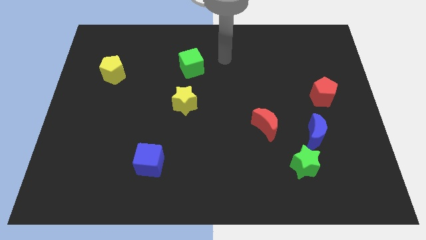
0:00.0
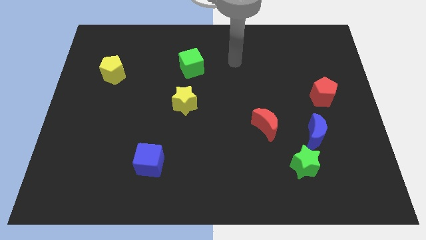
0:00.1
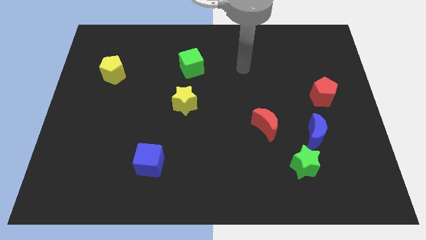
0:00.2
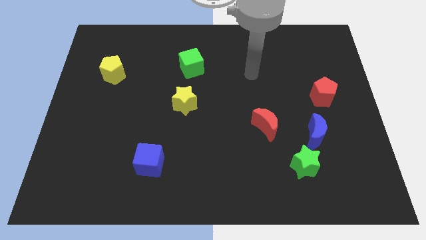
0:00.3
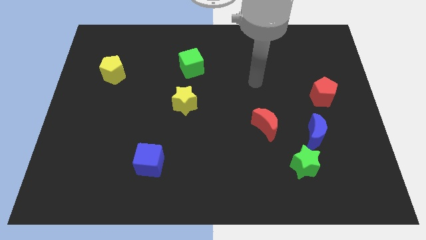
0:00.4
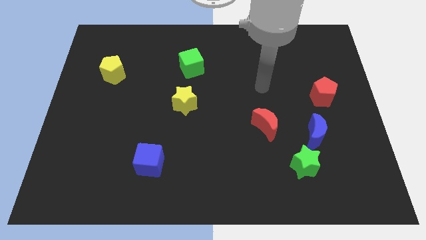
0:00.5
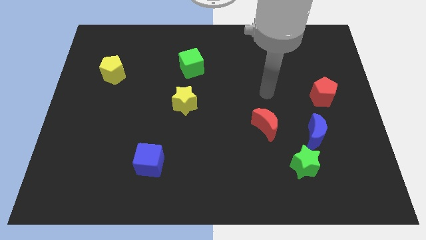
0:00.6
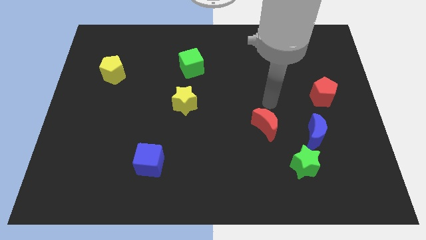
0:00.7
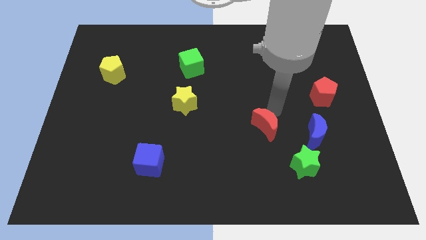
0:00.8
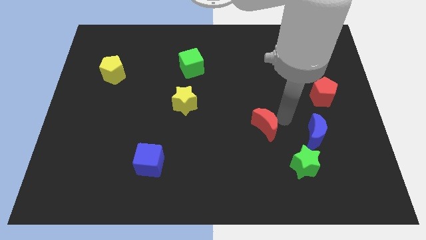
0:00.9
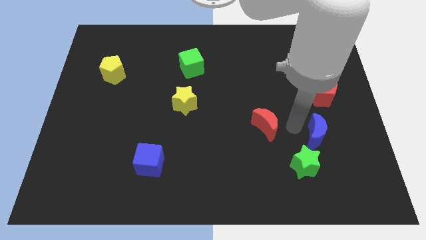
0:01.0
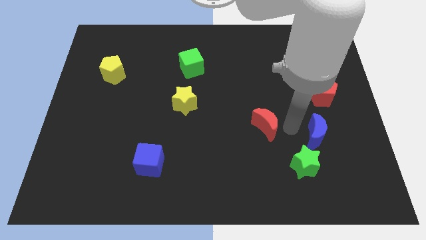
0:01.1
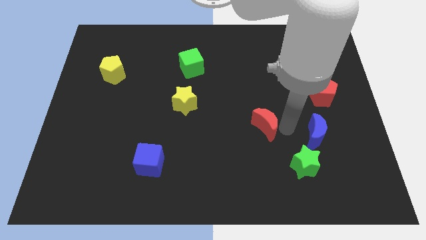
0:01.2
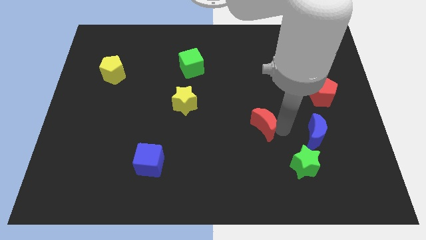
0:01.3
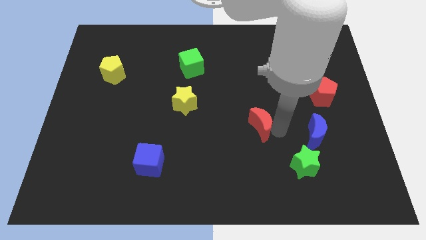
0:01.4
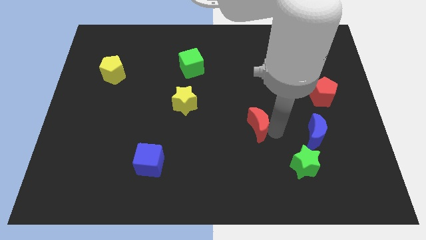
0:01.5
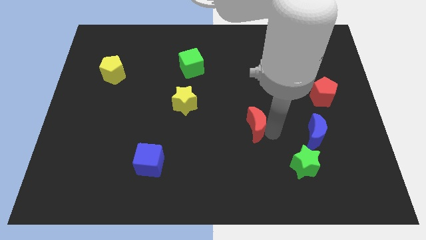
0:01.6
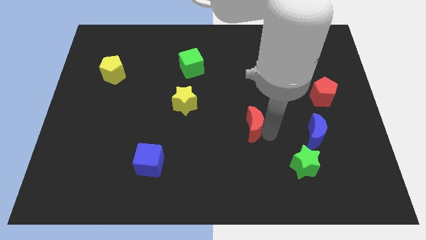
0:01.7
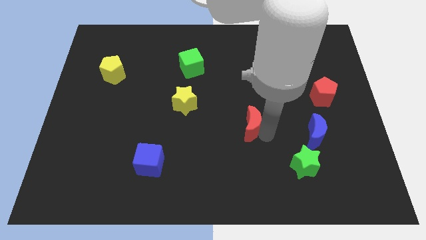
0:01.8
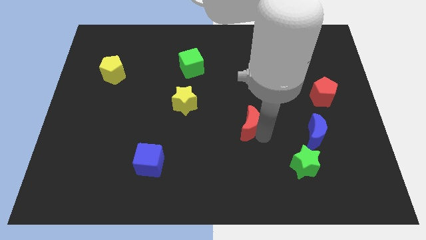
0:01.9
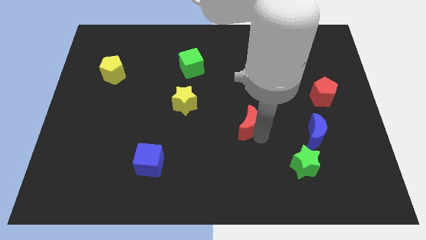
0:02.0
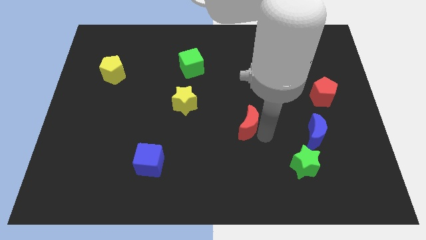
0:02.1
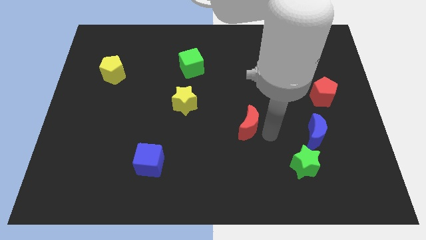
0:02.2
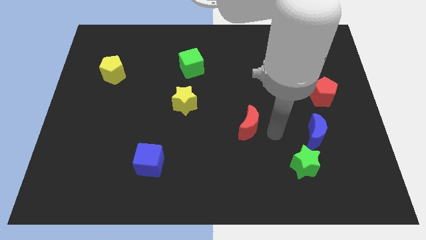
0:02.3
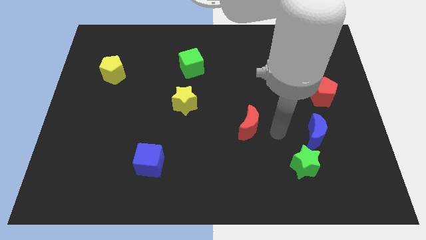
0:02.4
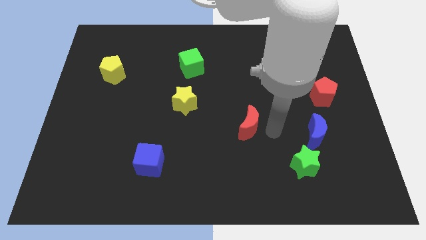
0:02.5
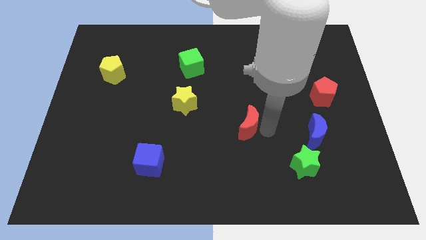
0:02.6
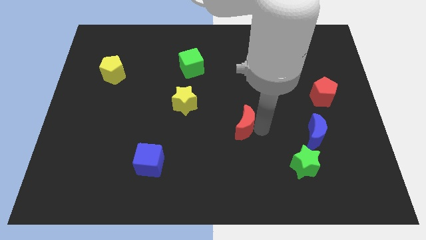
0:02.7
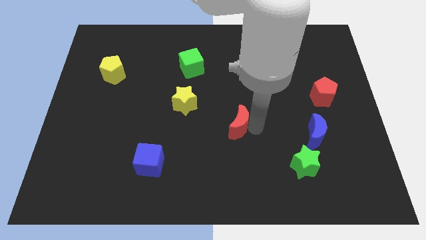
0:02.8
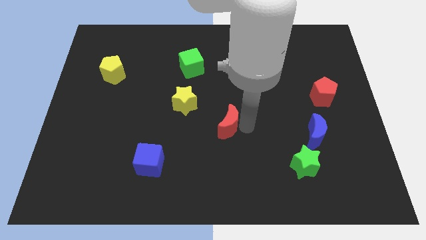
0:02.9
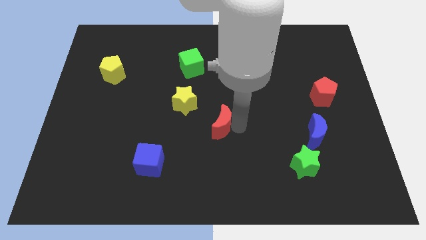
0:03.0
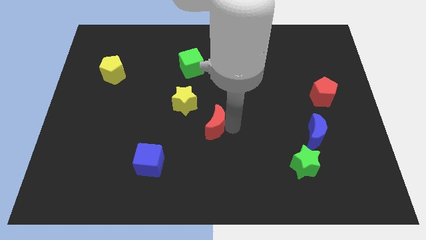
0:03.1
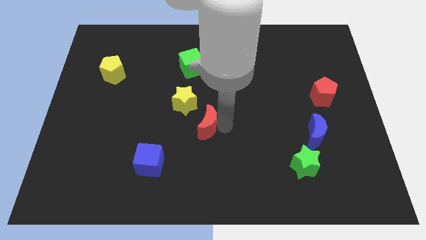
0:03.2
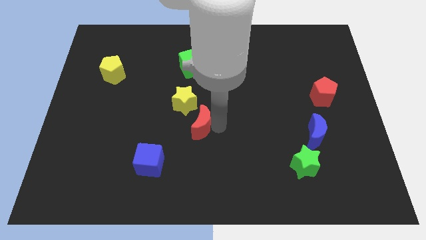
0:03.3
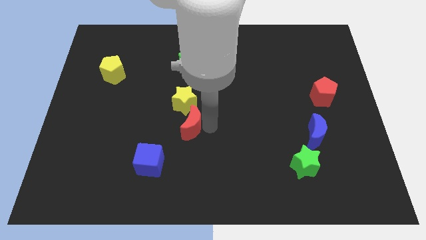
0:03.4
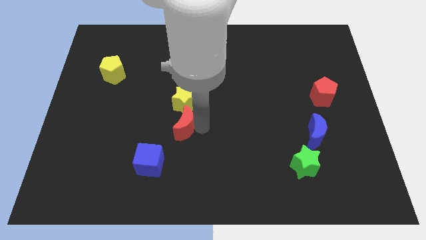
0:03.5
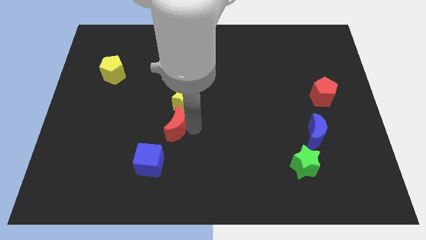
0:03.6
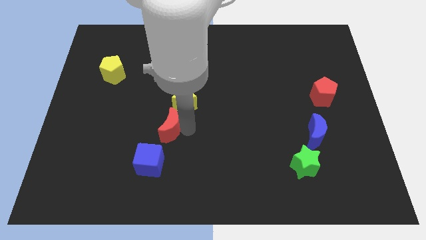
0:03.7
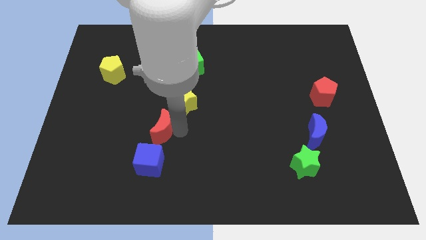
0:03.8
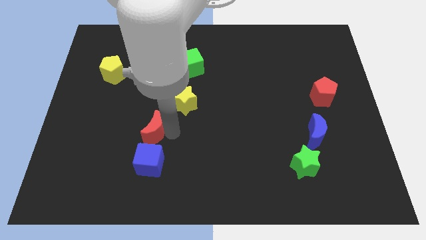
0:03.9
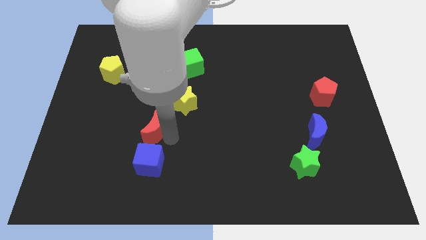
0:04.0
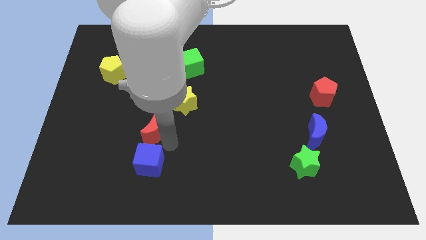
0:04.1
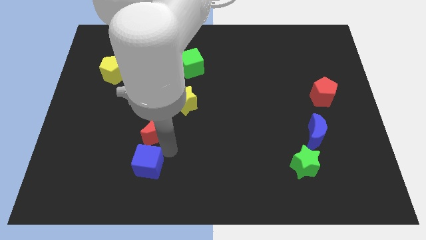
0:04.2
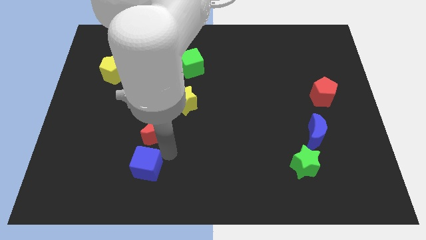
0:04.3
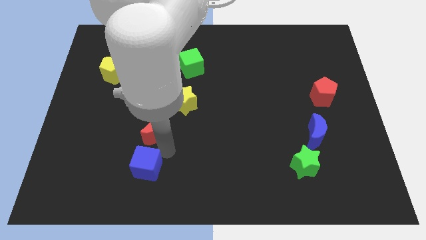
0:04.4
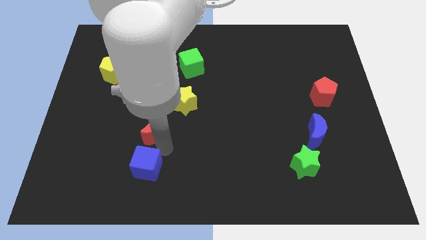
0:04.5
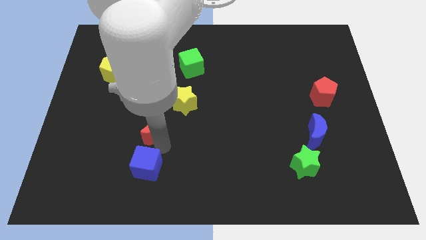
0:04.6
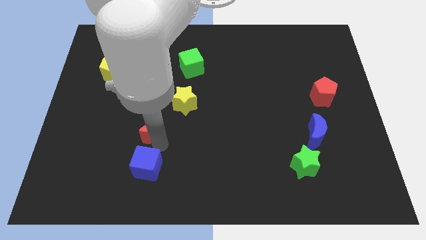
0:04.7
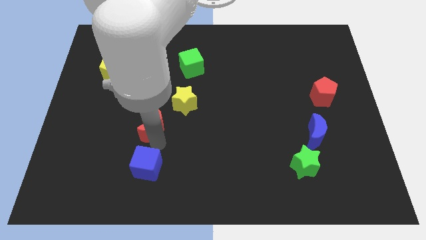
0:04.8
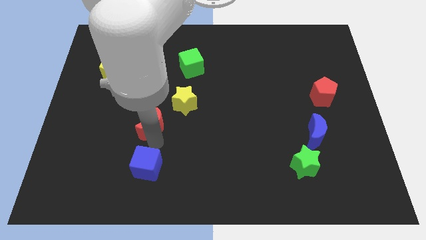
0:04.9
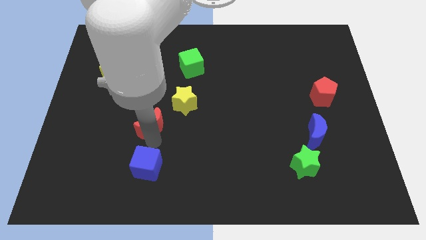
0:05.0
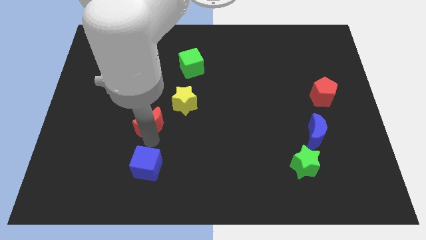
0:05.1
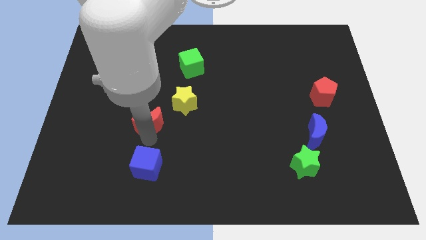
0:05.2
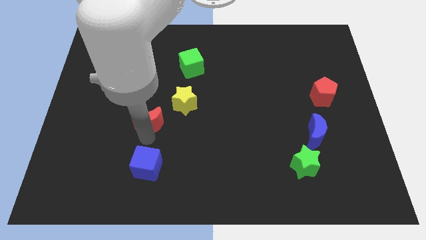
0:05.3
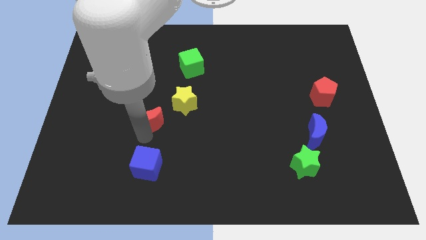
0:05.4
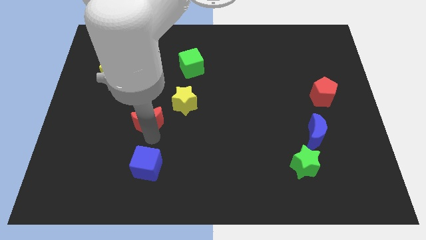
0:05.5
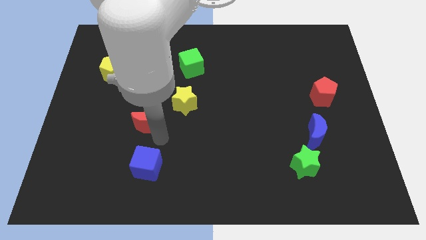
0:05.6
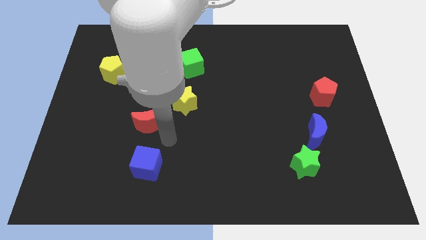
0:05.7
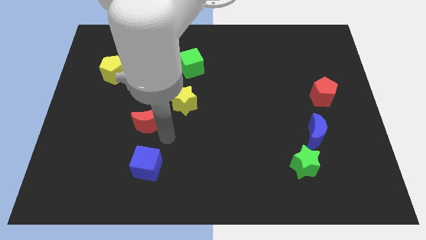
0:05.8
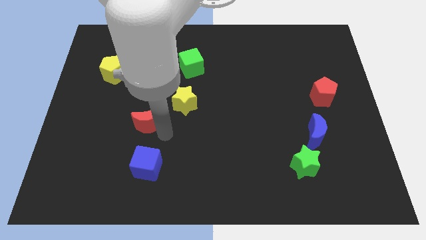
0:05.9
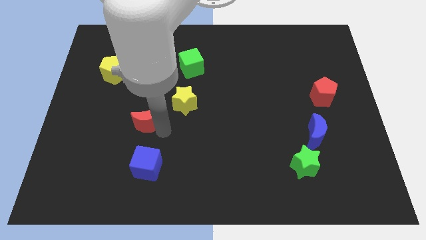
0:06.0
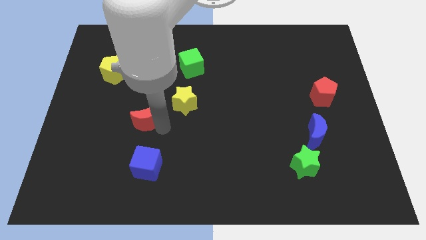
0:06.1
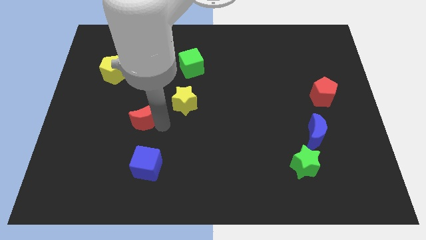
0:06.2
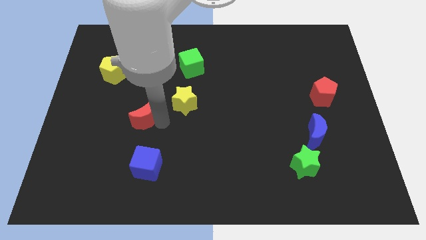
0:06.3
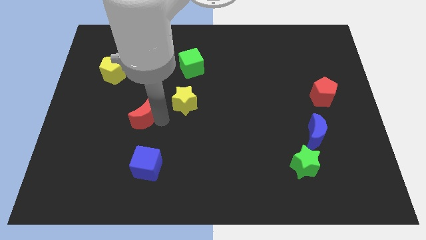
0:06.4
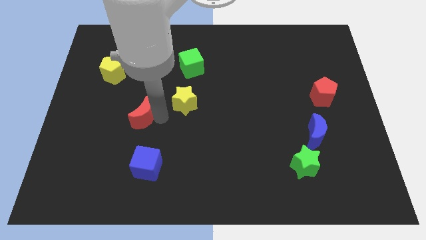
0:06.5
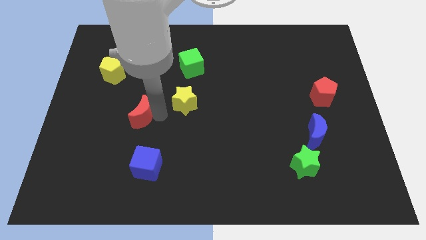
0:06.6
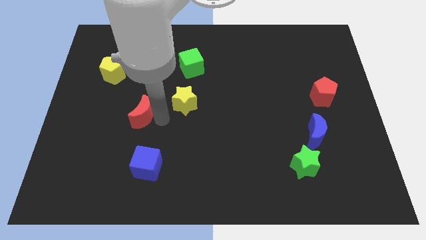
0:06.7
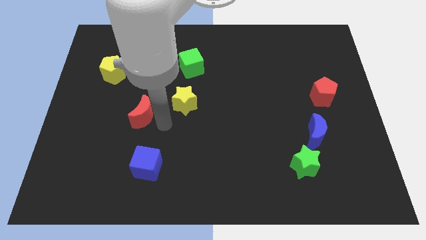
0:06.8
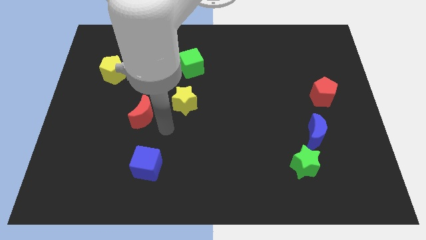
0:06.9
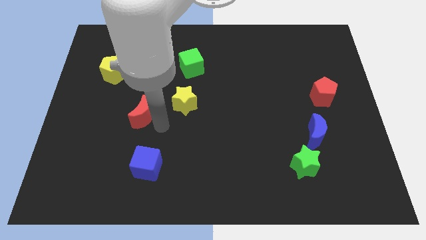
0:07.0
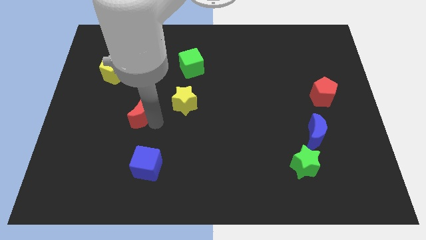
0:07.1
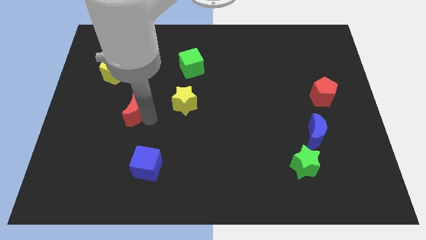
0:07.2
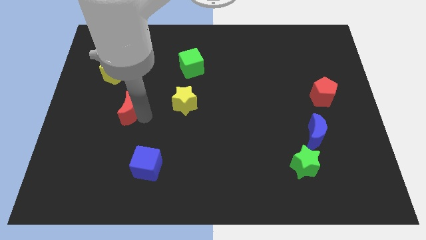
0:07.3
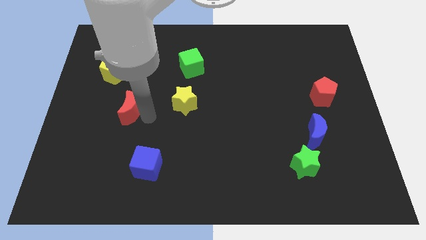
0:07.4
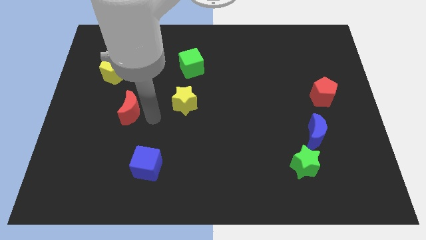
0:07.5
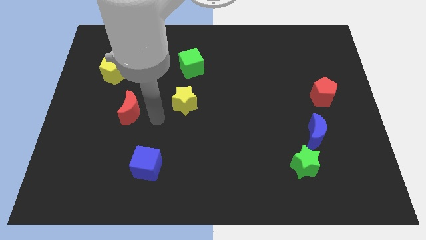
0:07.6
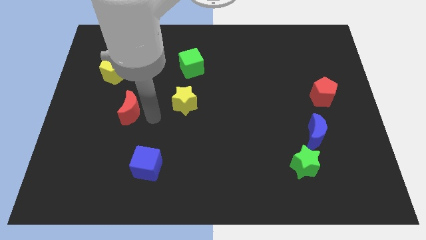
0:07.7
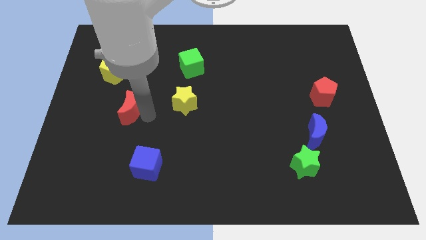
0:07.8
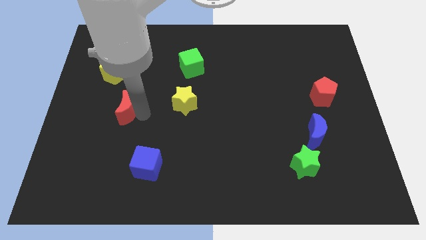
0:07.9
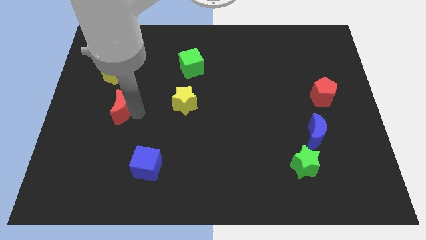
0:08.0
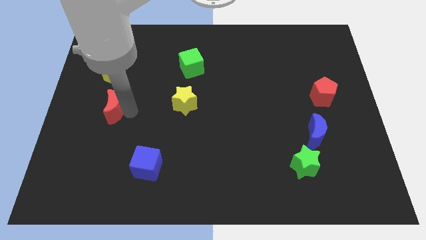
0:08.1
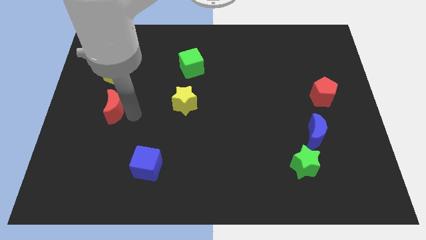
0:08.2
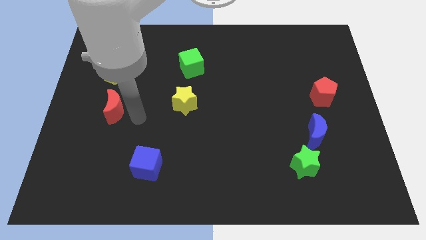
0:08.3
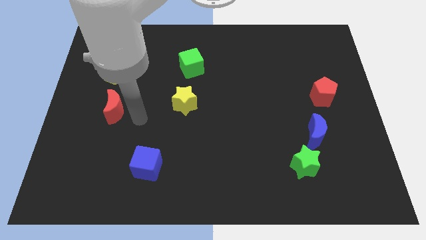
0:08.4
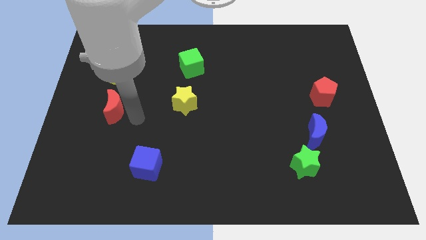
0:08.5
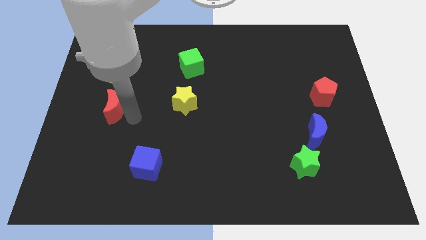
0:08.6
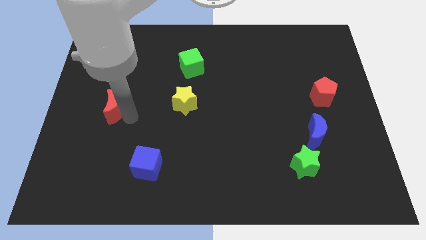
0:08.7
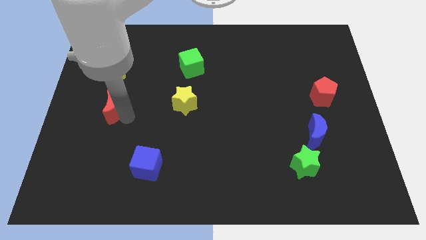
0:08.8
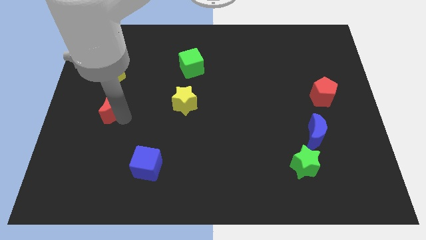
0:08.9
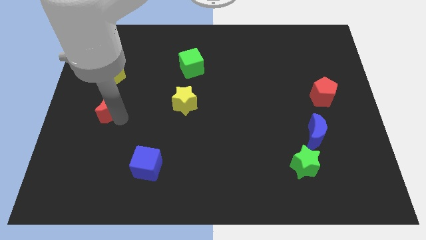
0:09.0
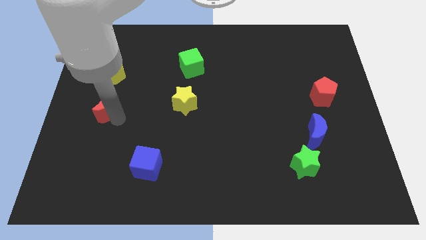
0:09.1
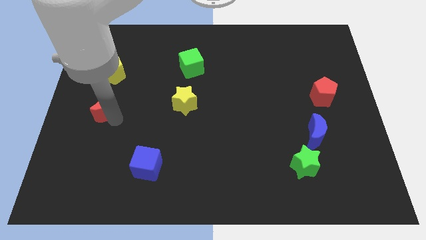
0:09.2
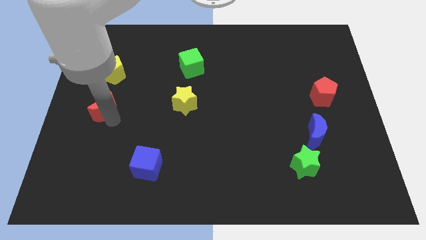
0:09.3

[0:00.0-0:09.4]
slide the red moon to the center left
